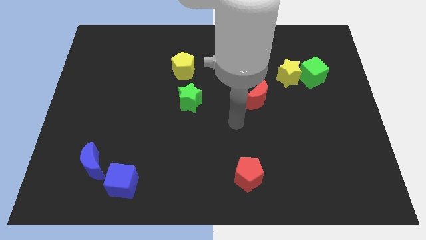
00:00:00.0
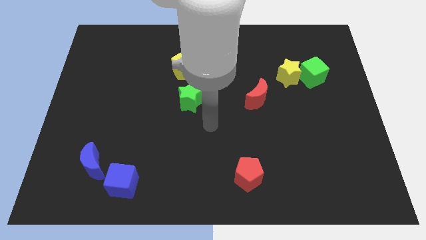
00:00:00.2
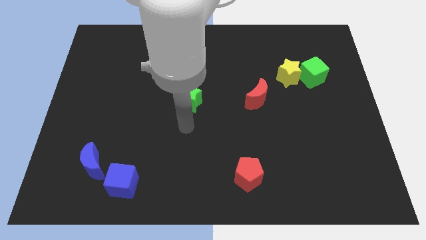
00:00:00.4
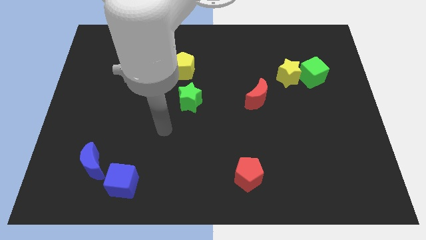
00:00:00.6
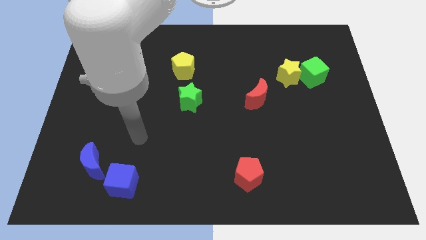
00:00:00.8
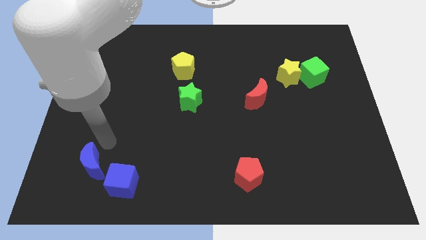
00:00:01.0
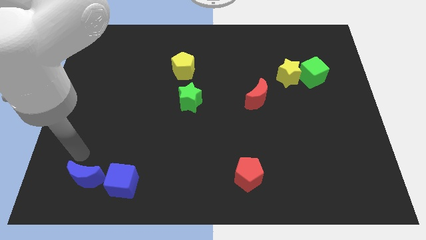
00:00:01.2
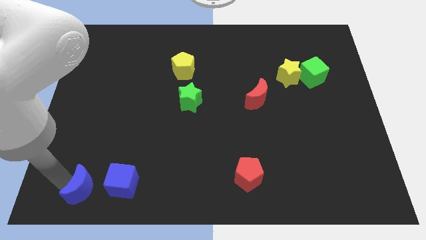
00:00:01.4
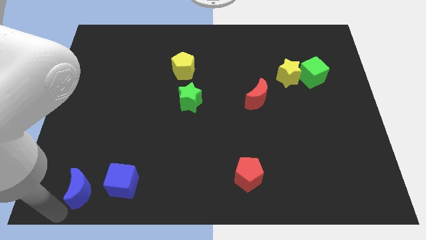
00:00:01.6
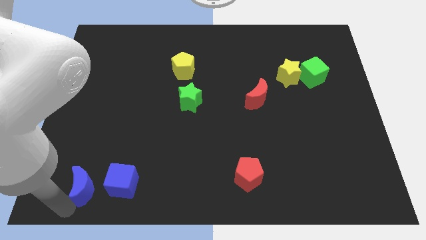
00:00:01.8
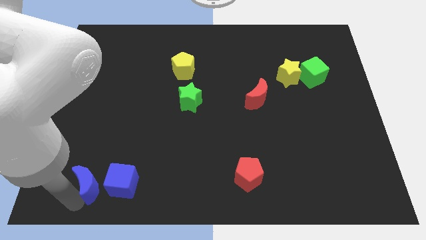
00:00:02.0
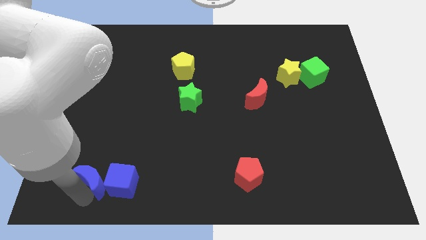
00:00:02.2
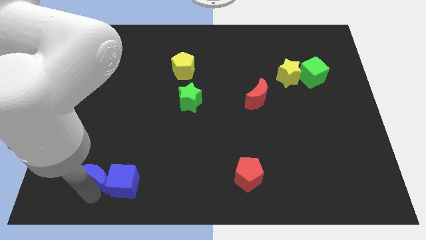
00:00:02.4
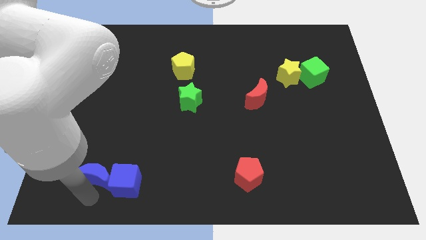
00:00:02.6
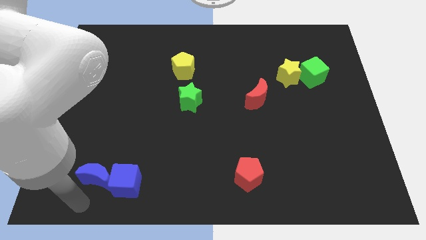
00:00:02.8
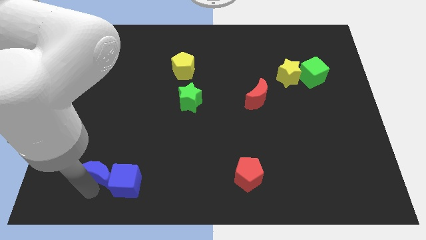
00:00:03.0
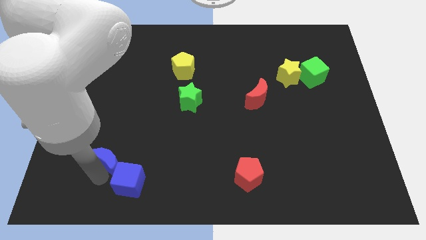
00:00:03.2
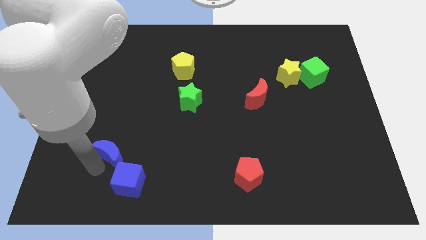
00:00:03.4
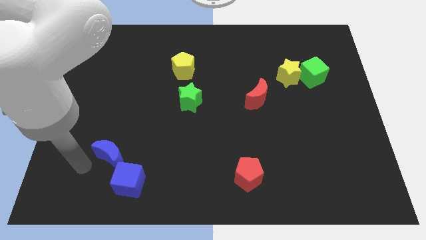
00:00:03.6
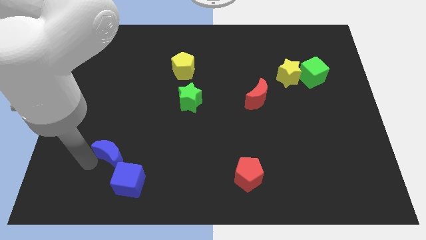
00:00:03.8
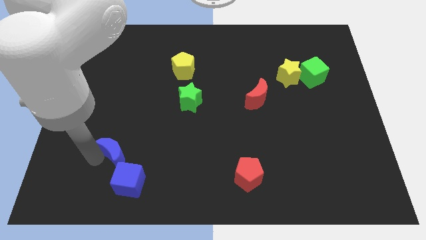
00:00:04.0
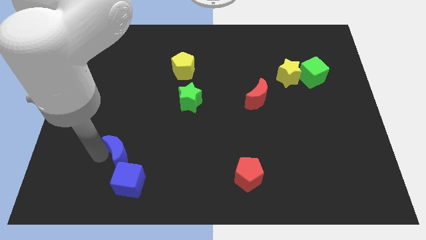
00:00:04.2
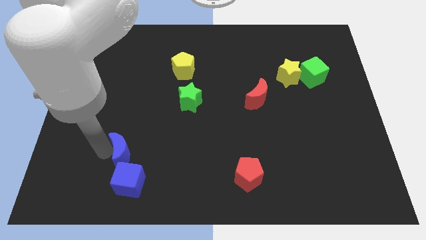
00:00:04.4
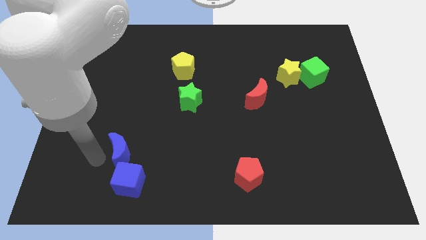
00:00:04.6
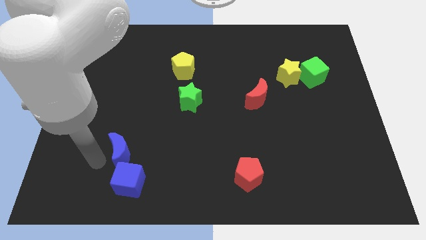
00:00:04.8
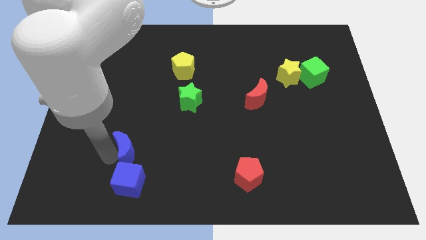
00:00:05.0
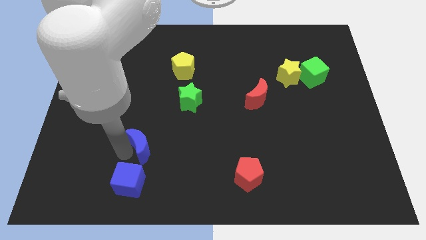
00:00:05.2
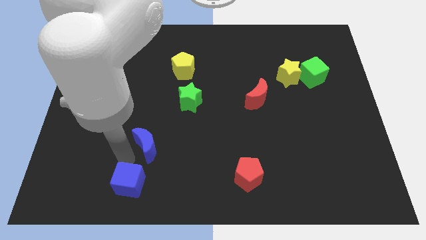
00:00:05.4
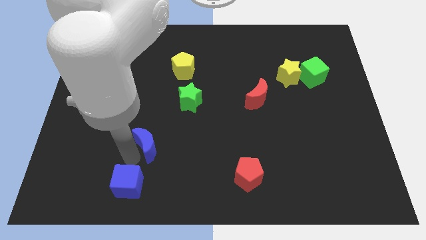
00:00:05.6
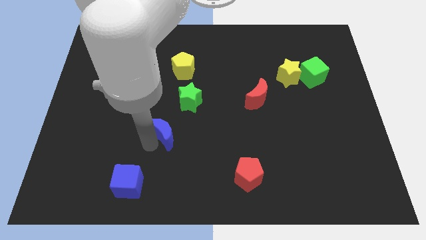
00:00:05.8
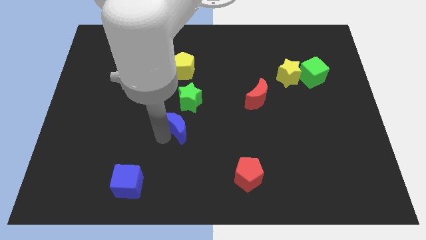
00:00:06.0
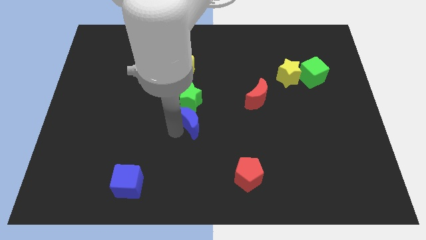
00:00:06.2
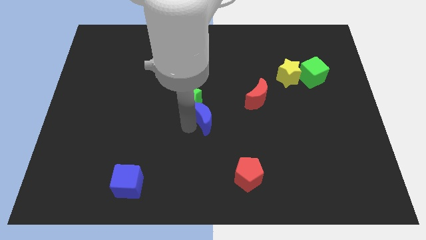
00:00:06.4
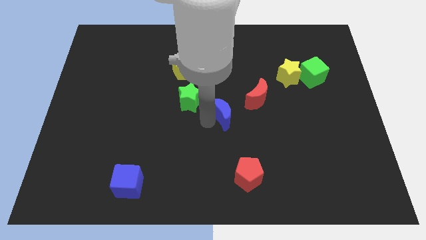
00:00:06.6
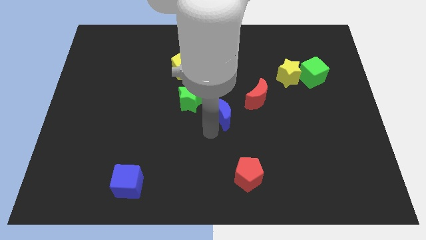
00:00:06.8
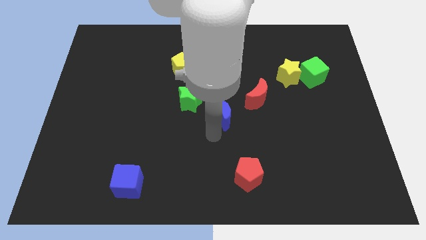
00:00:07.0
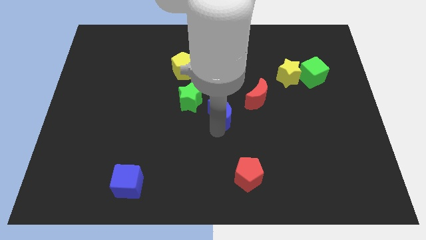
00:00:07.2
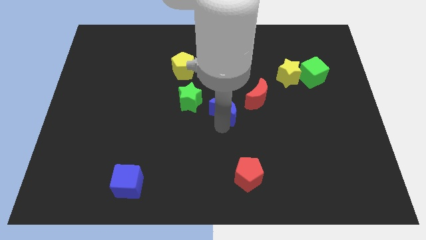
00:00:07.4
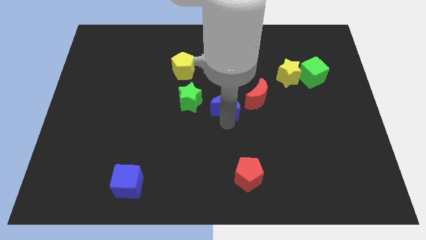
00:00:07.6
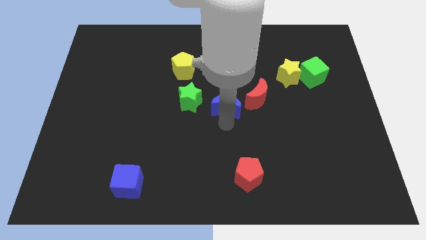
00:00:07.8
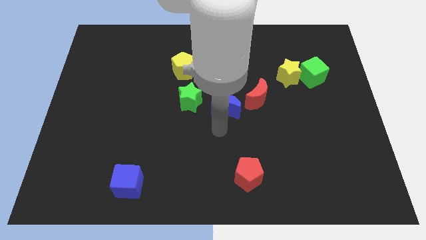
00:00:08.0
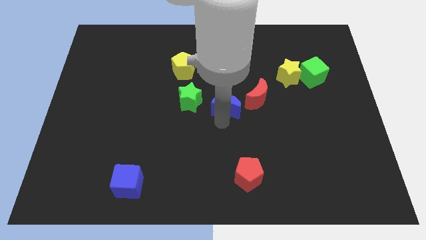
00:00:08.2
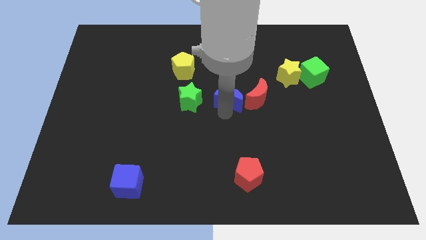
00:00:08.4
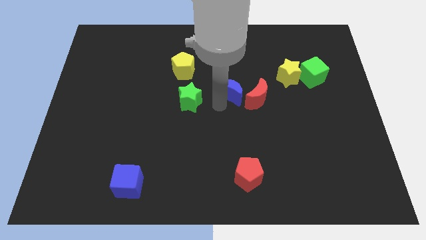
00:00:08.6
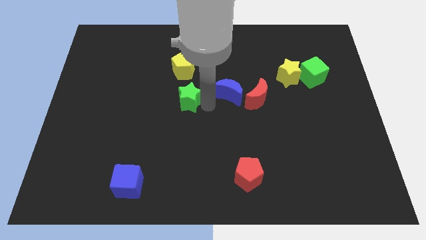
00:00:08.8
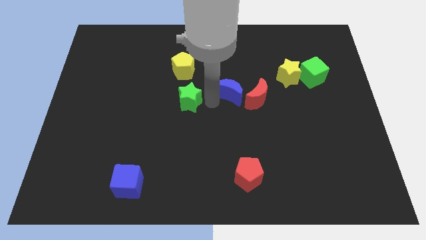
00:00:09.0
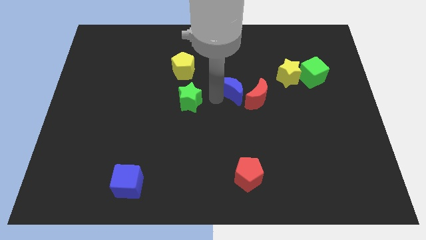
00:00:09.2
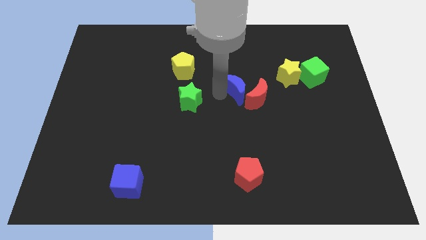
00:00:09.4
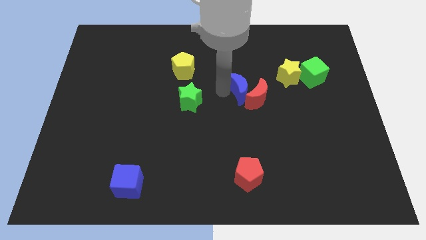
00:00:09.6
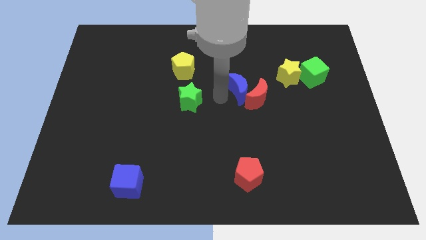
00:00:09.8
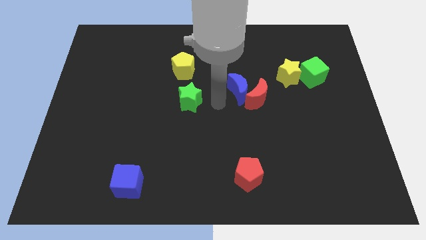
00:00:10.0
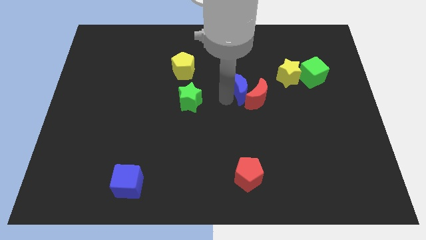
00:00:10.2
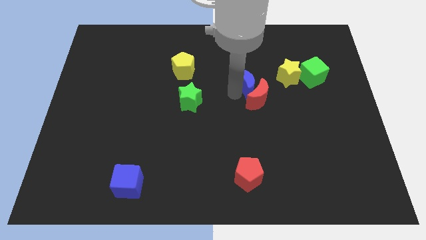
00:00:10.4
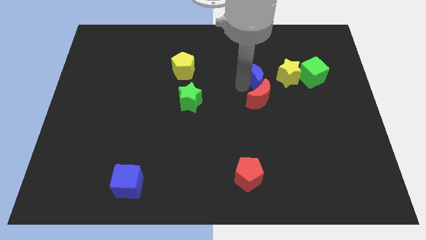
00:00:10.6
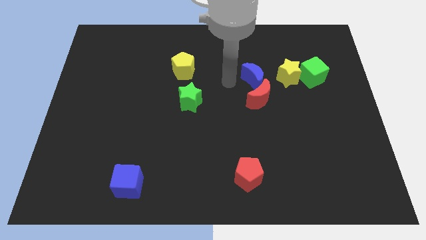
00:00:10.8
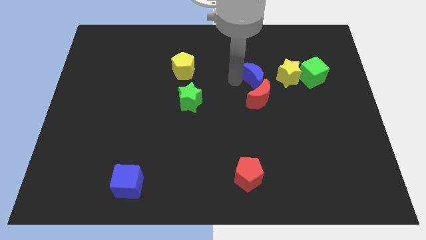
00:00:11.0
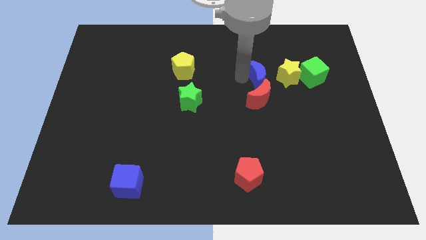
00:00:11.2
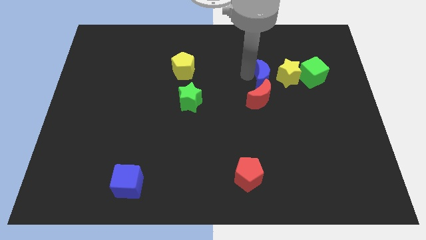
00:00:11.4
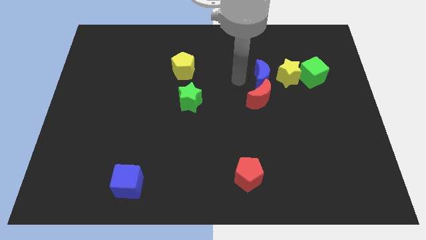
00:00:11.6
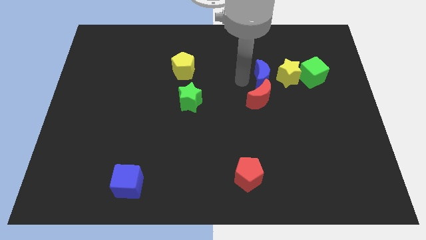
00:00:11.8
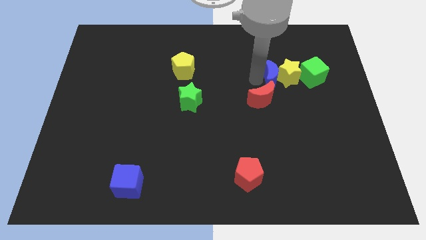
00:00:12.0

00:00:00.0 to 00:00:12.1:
move the blue moon close to the yellow star

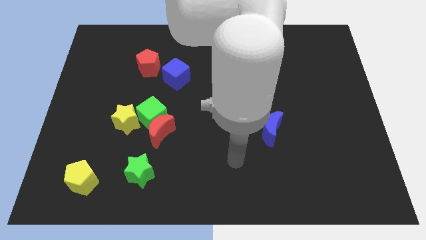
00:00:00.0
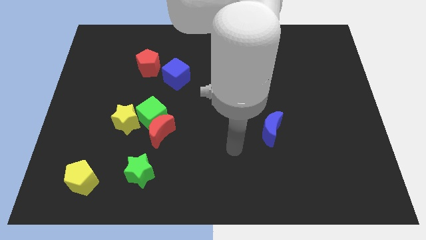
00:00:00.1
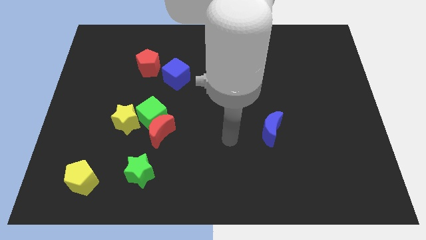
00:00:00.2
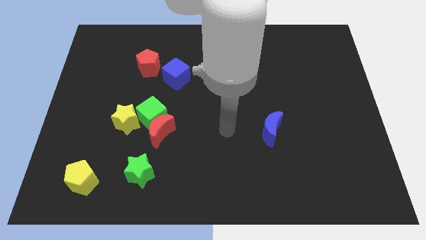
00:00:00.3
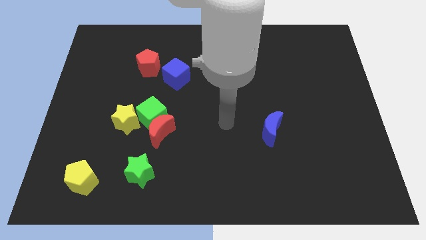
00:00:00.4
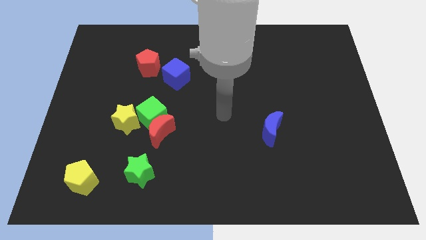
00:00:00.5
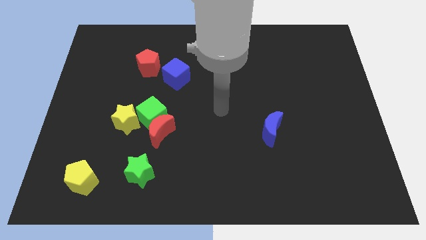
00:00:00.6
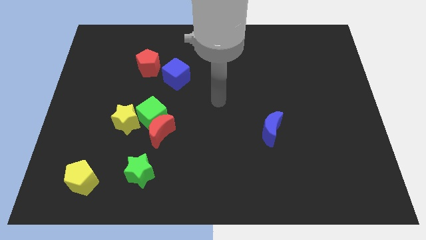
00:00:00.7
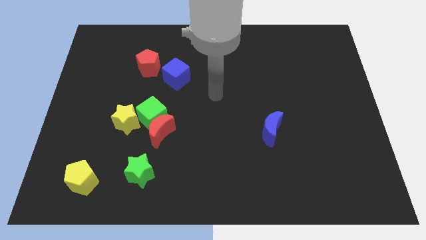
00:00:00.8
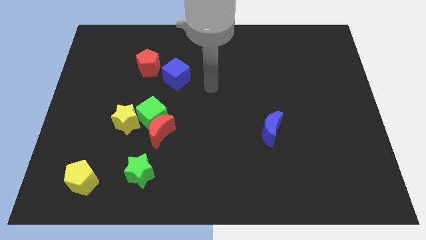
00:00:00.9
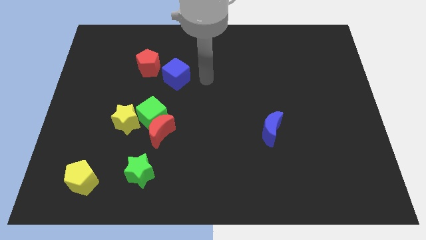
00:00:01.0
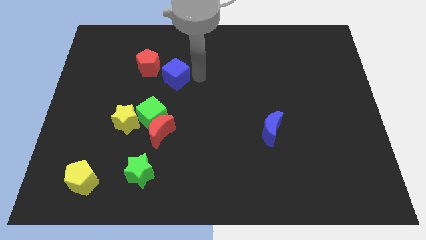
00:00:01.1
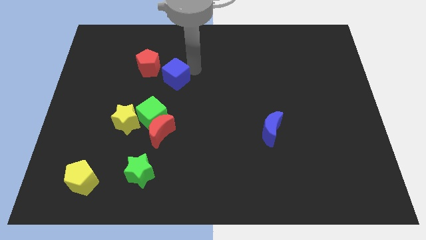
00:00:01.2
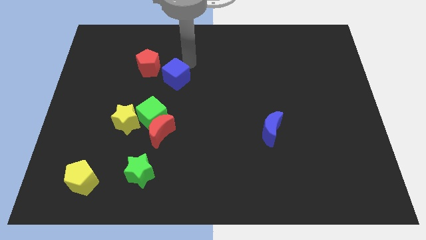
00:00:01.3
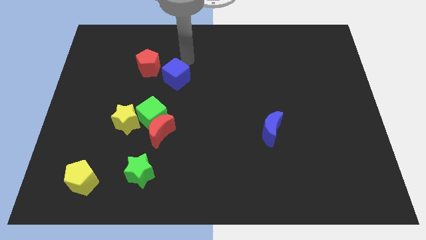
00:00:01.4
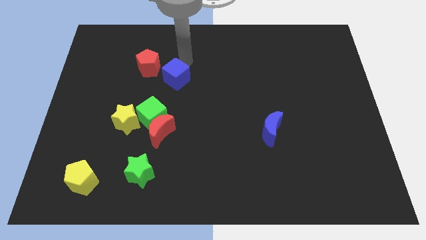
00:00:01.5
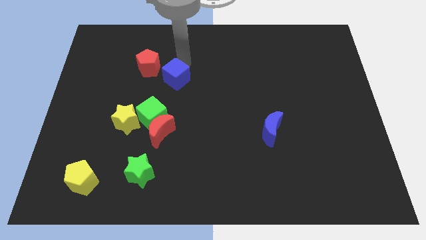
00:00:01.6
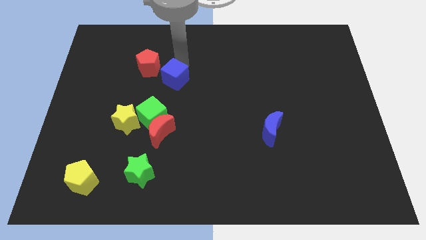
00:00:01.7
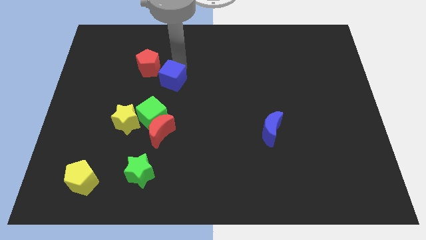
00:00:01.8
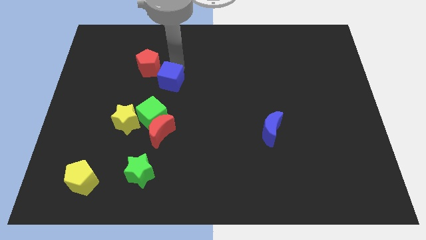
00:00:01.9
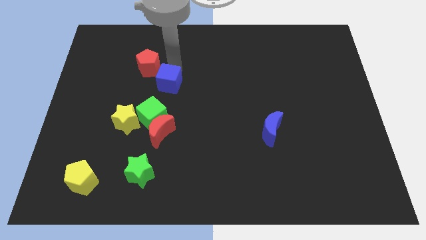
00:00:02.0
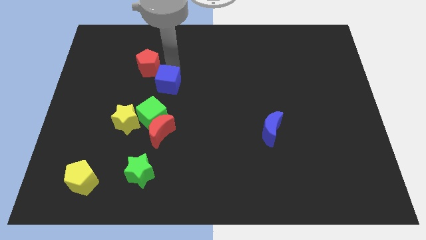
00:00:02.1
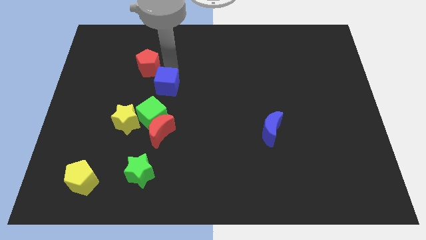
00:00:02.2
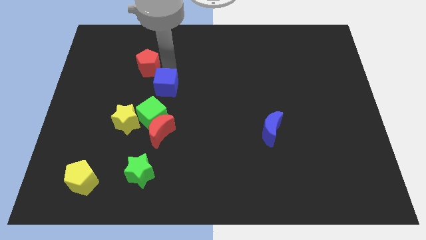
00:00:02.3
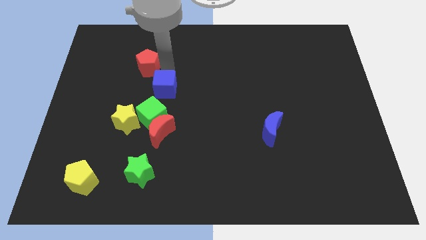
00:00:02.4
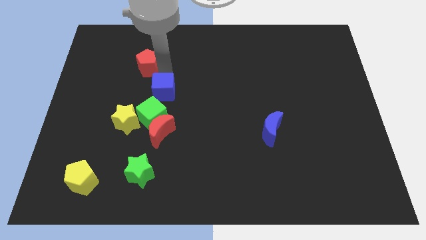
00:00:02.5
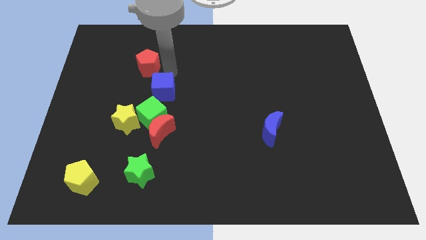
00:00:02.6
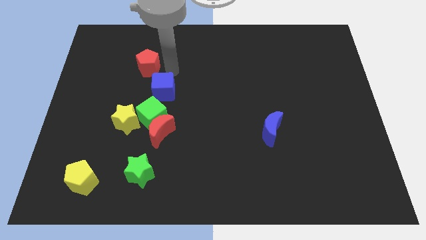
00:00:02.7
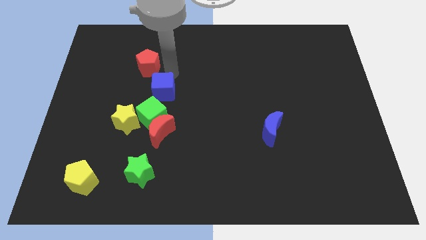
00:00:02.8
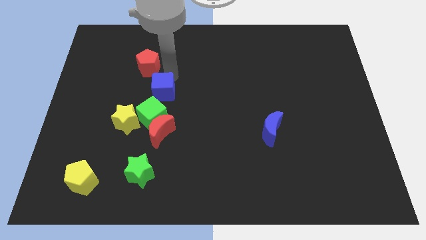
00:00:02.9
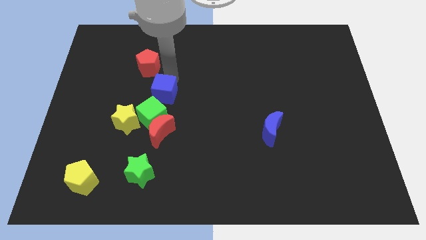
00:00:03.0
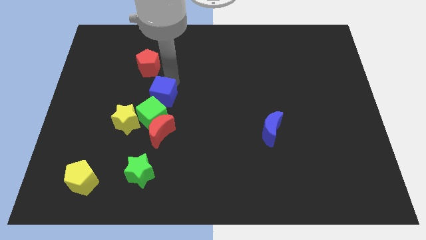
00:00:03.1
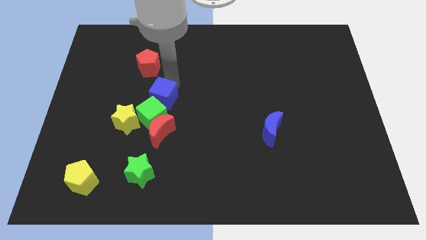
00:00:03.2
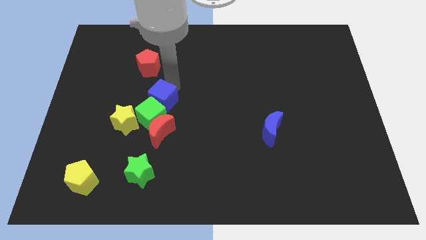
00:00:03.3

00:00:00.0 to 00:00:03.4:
put the blue cube to the green cube
